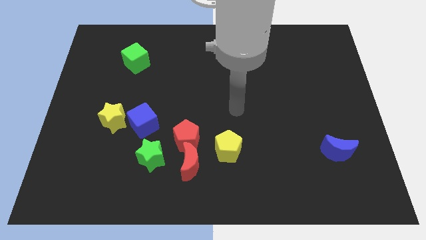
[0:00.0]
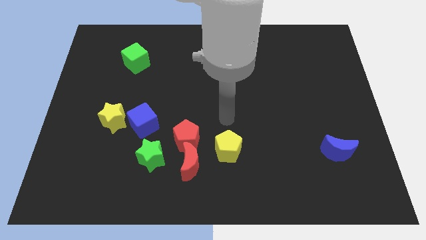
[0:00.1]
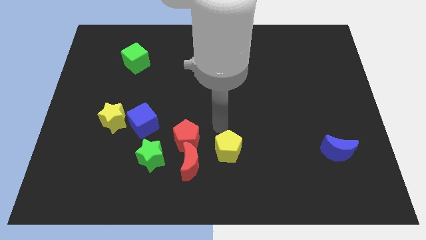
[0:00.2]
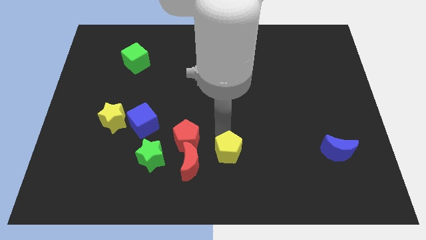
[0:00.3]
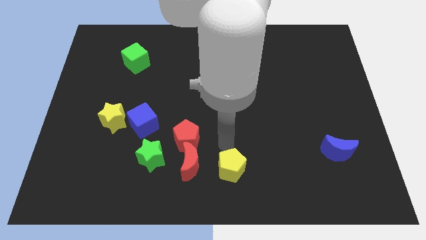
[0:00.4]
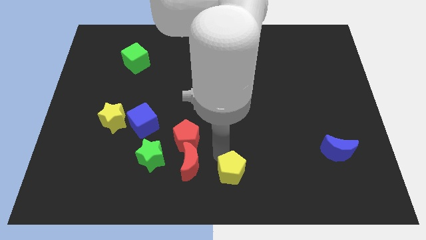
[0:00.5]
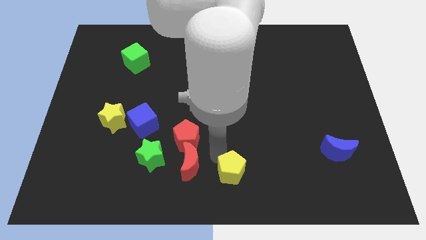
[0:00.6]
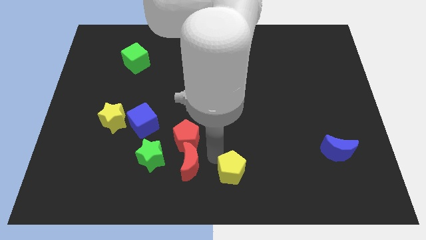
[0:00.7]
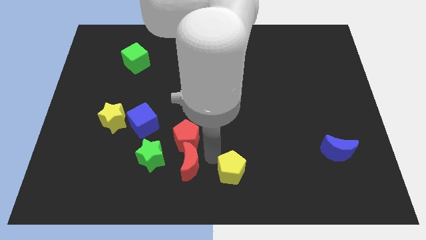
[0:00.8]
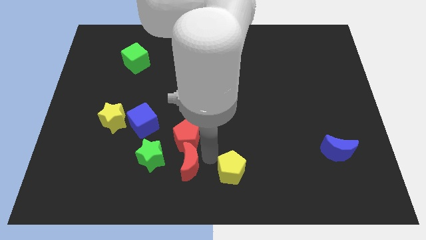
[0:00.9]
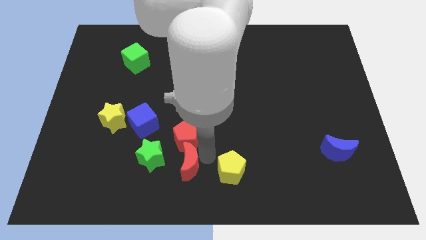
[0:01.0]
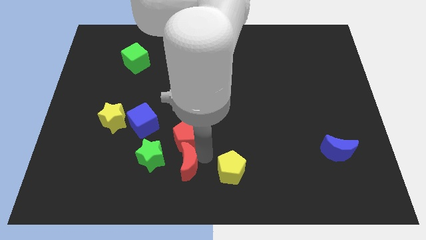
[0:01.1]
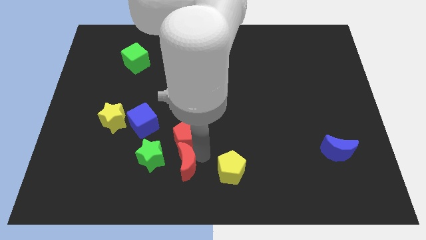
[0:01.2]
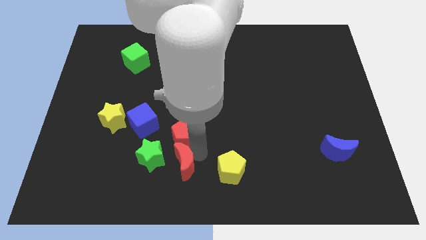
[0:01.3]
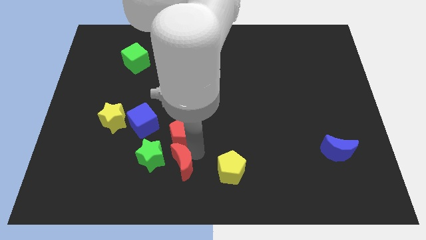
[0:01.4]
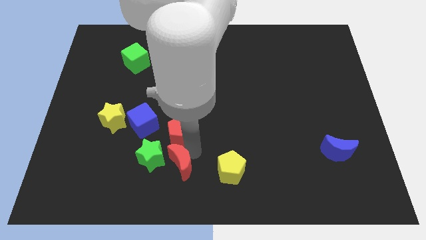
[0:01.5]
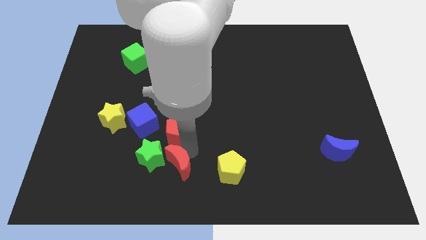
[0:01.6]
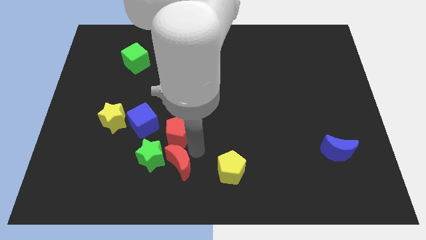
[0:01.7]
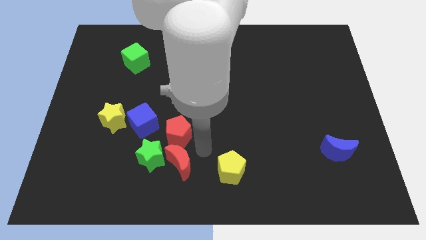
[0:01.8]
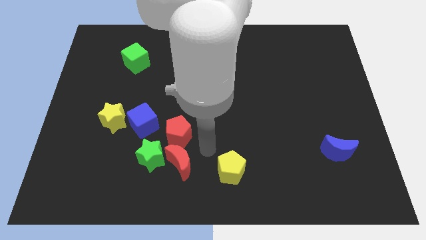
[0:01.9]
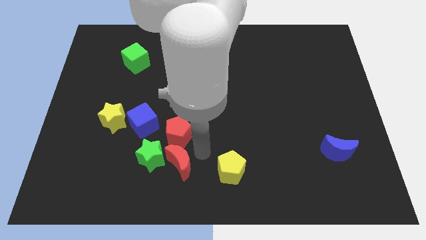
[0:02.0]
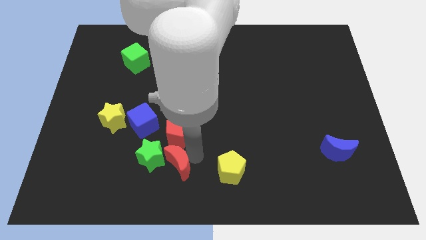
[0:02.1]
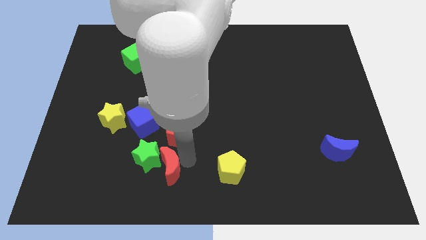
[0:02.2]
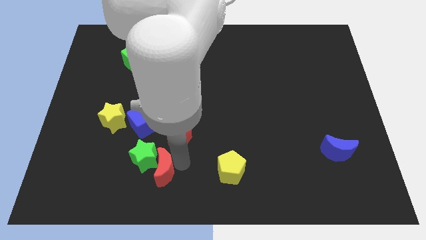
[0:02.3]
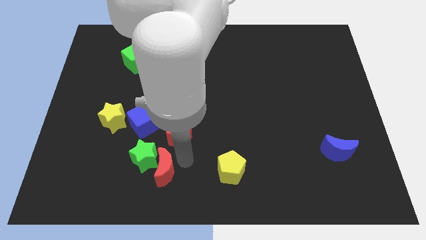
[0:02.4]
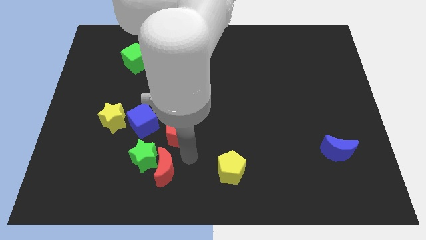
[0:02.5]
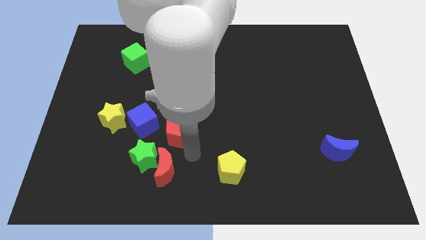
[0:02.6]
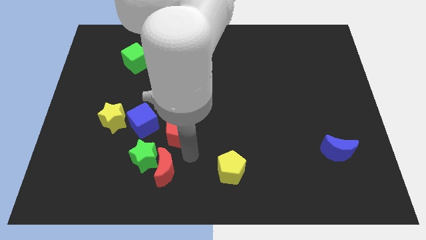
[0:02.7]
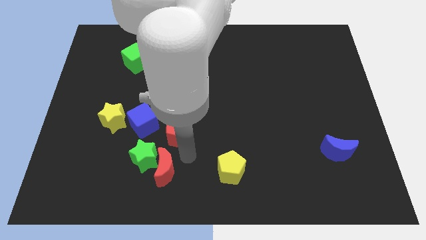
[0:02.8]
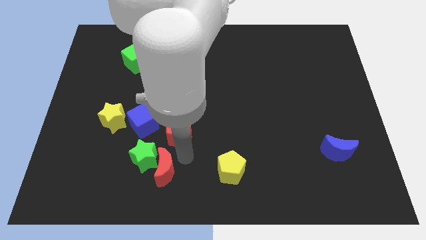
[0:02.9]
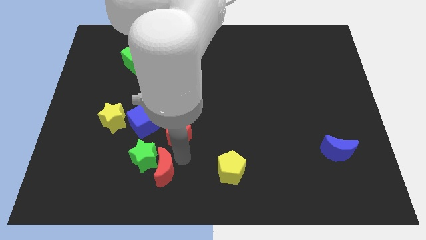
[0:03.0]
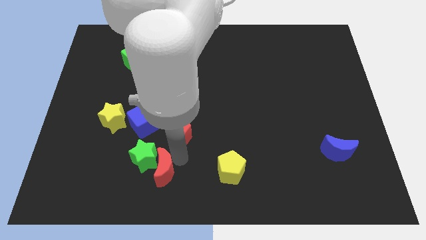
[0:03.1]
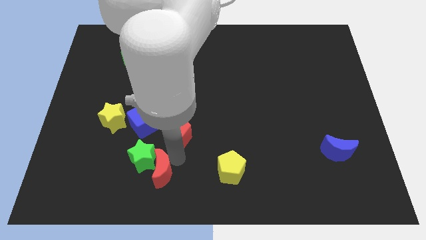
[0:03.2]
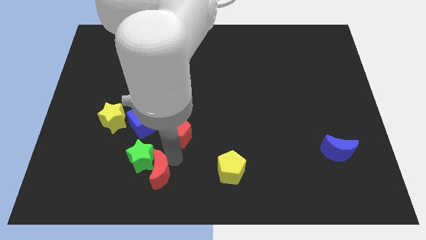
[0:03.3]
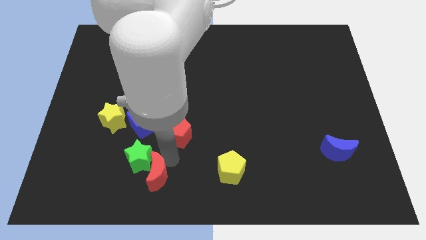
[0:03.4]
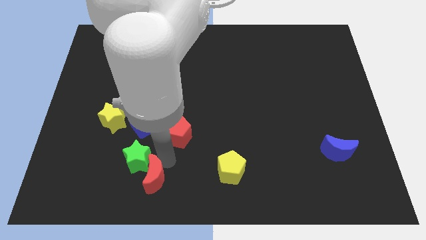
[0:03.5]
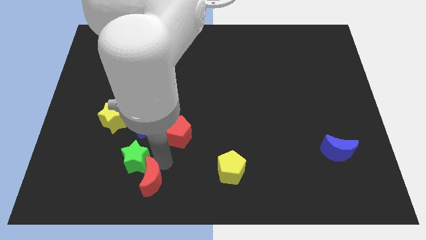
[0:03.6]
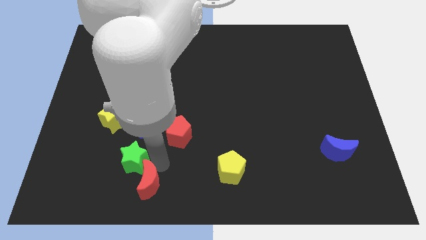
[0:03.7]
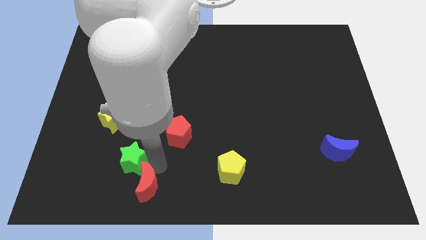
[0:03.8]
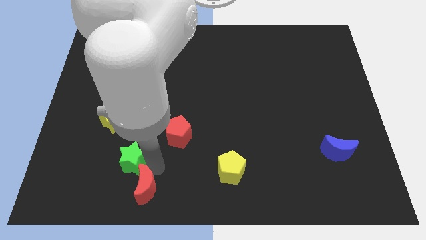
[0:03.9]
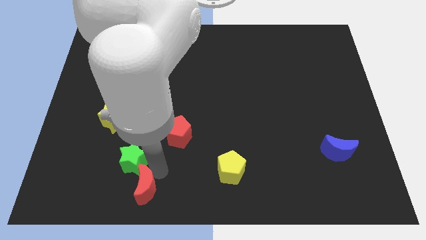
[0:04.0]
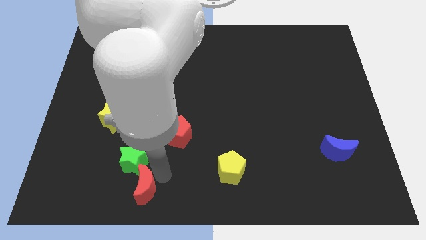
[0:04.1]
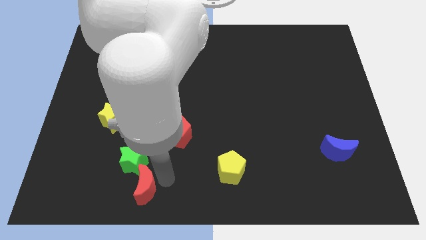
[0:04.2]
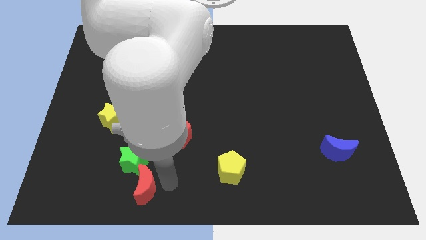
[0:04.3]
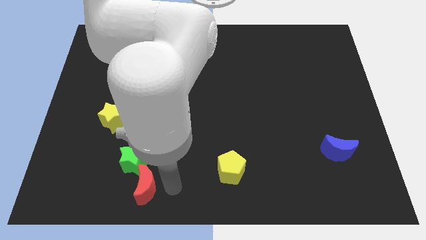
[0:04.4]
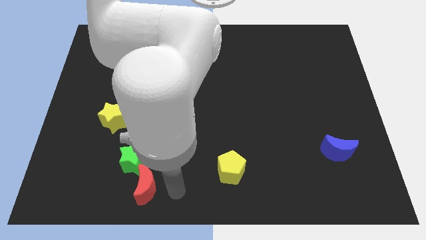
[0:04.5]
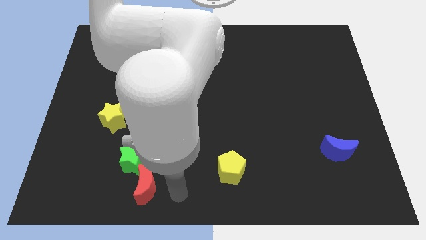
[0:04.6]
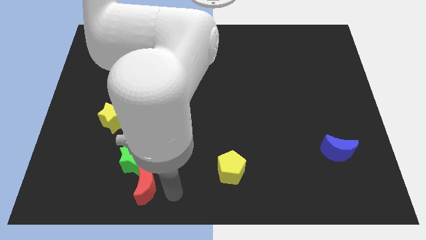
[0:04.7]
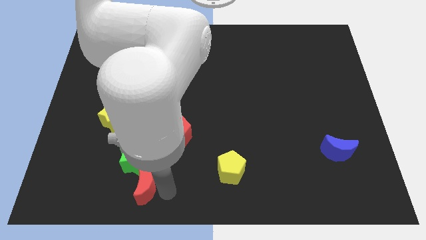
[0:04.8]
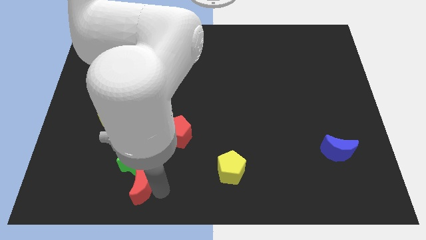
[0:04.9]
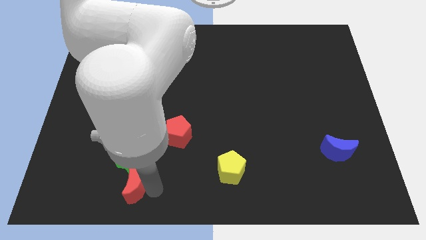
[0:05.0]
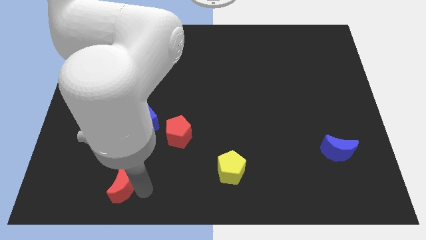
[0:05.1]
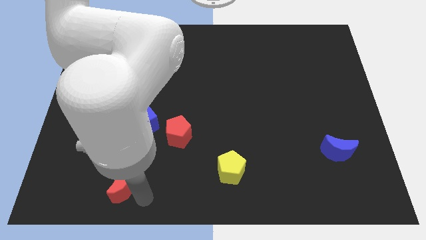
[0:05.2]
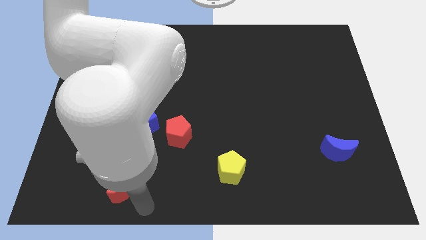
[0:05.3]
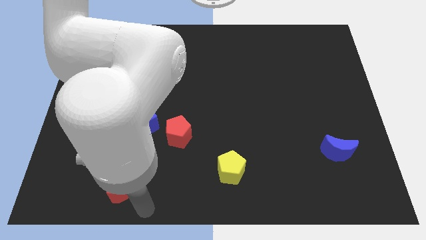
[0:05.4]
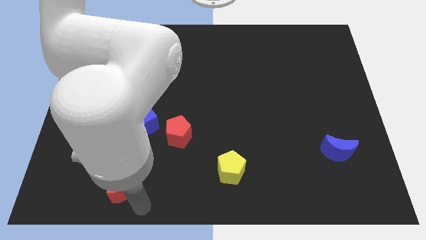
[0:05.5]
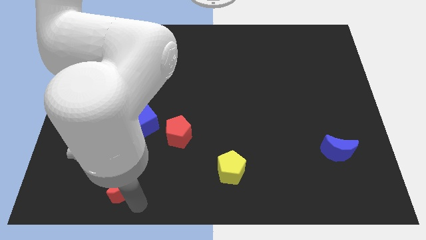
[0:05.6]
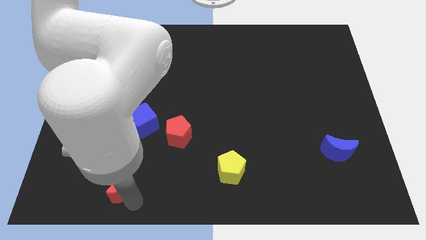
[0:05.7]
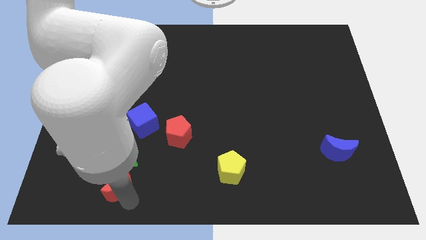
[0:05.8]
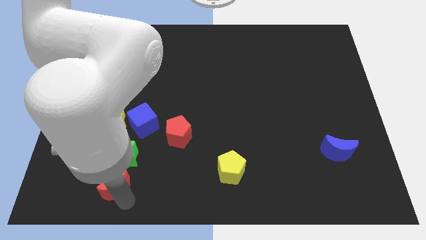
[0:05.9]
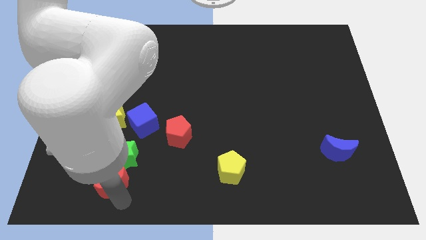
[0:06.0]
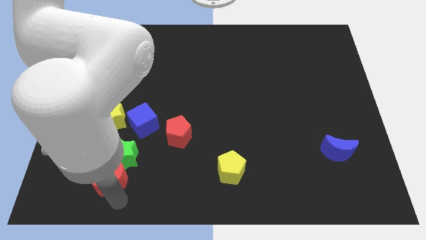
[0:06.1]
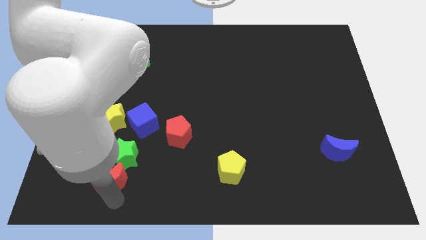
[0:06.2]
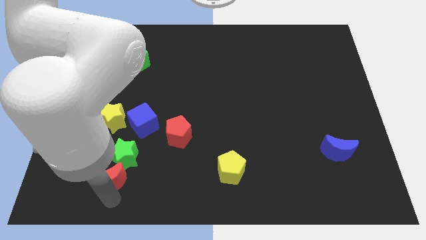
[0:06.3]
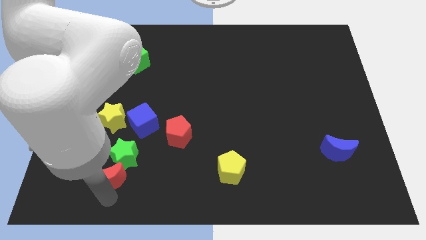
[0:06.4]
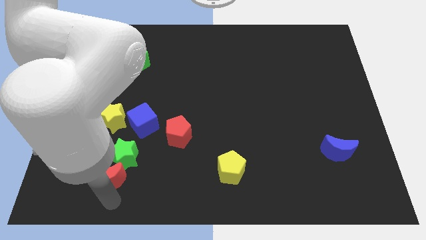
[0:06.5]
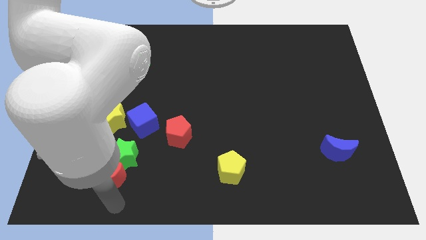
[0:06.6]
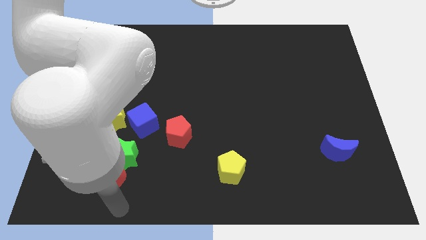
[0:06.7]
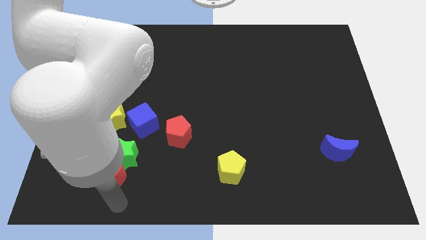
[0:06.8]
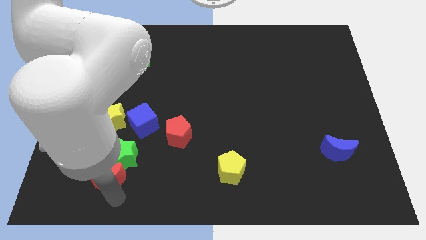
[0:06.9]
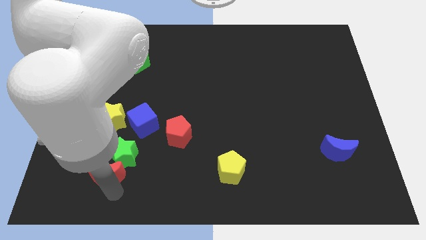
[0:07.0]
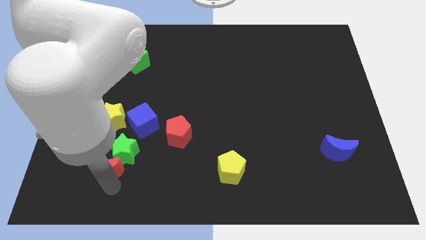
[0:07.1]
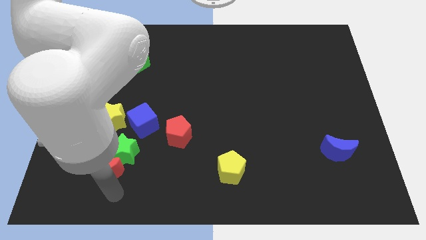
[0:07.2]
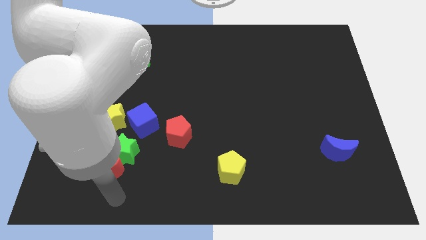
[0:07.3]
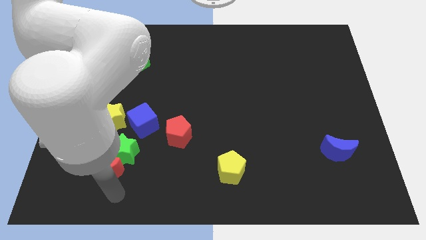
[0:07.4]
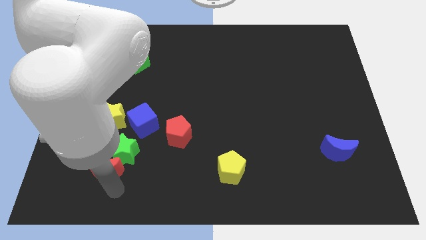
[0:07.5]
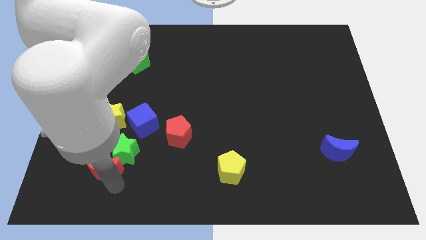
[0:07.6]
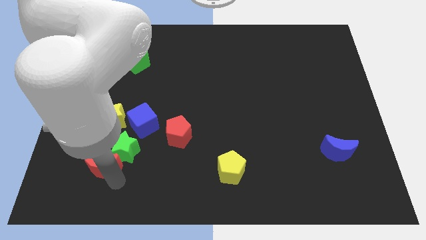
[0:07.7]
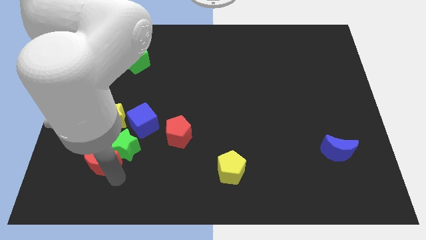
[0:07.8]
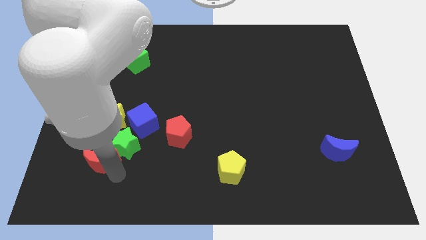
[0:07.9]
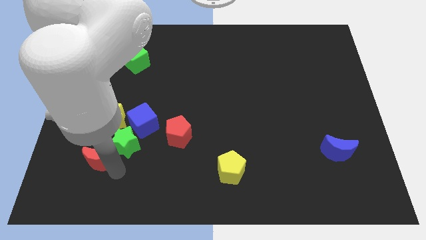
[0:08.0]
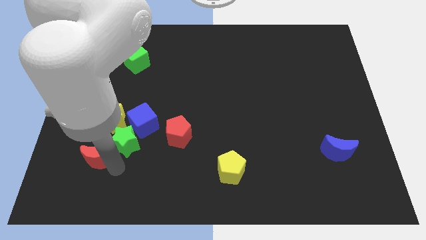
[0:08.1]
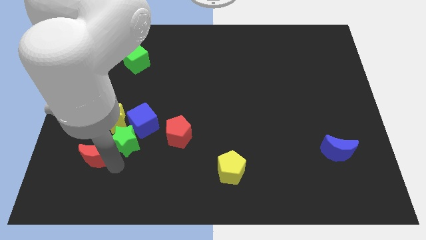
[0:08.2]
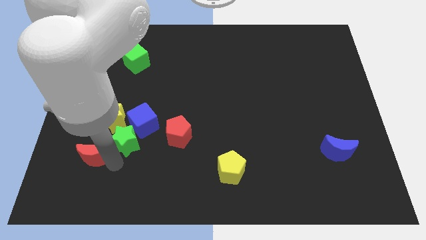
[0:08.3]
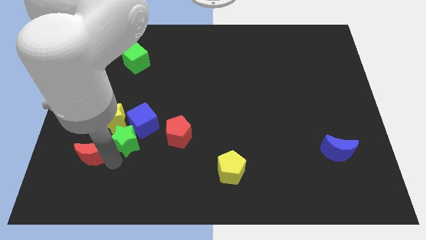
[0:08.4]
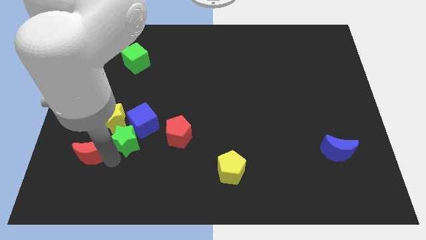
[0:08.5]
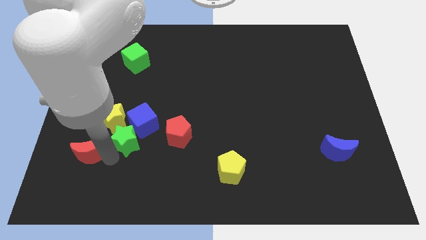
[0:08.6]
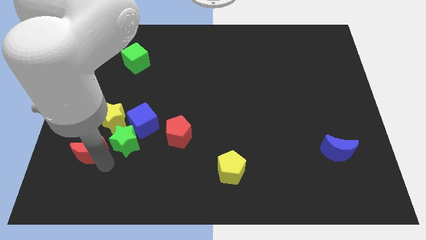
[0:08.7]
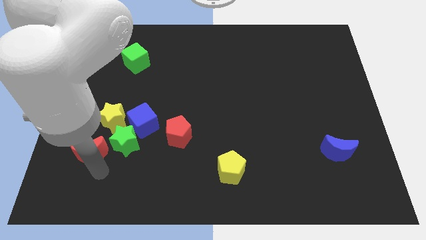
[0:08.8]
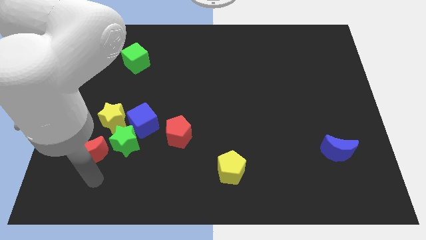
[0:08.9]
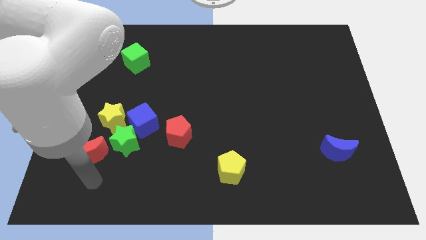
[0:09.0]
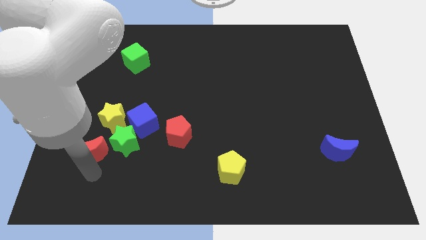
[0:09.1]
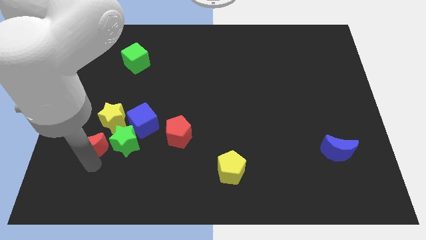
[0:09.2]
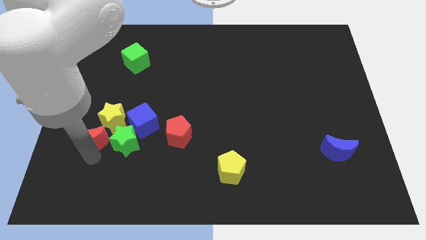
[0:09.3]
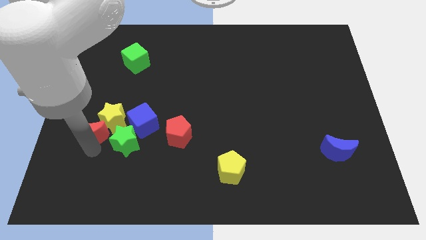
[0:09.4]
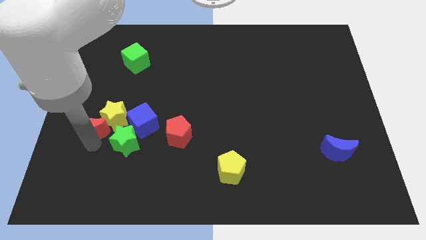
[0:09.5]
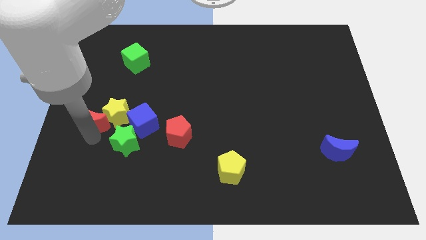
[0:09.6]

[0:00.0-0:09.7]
move the red moon upwards and to the left diagonally
